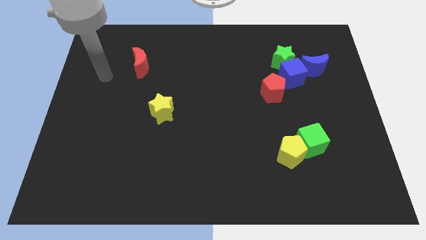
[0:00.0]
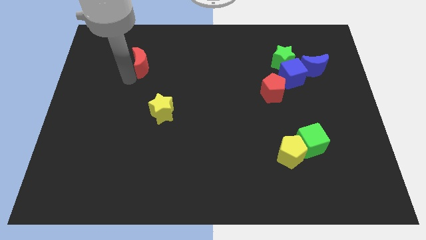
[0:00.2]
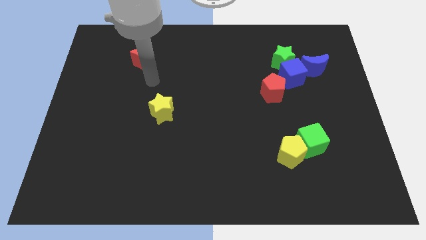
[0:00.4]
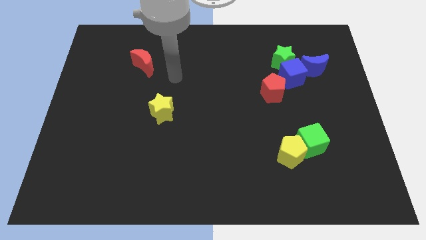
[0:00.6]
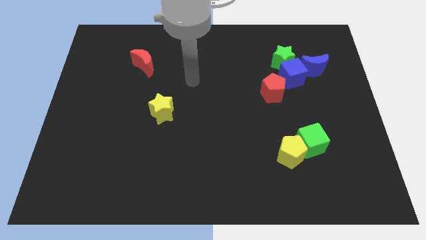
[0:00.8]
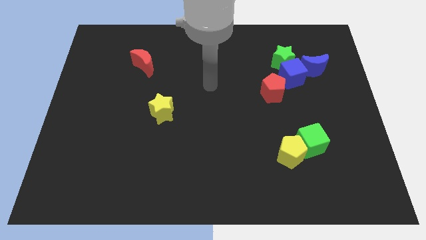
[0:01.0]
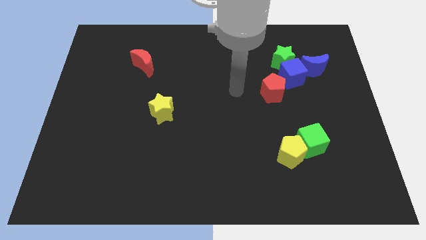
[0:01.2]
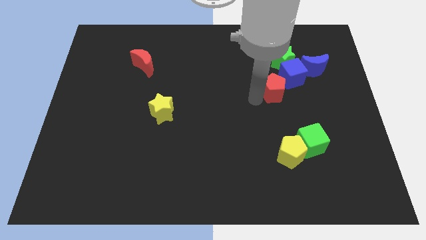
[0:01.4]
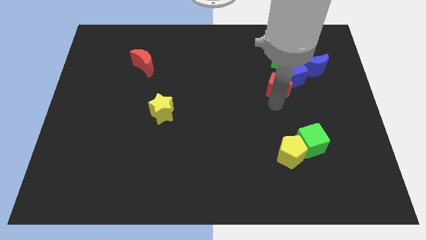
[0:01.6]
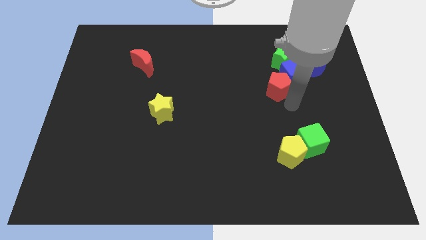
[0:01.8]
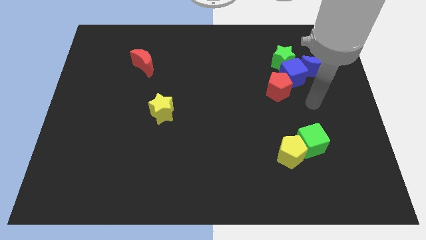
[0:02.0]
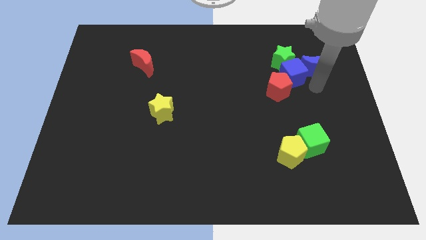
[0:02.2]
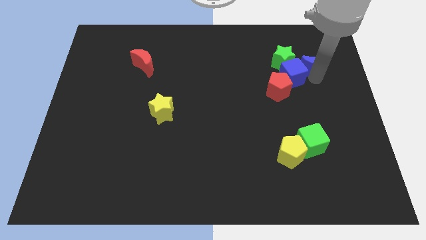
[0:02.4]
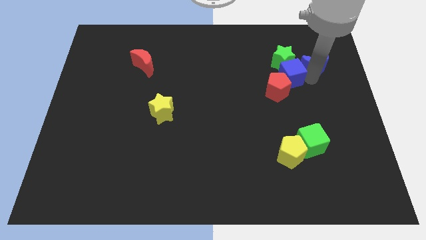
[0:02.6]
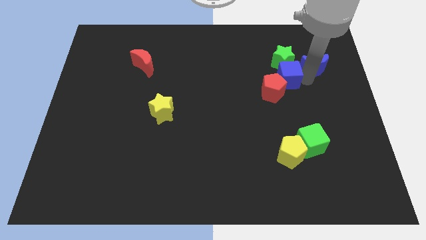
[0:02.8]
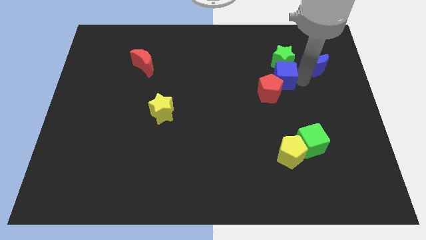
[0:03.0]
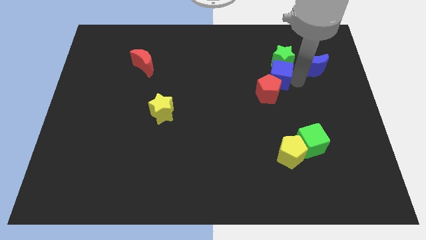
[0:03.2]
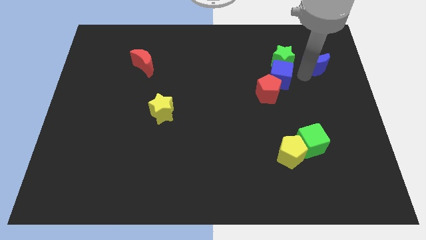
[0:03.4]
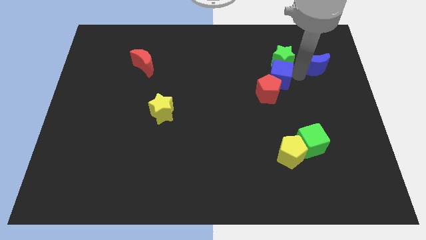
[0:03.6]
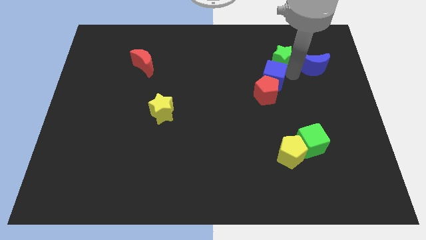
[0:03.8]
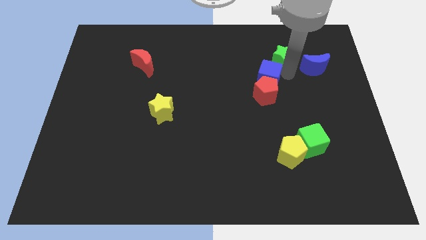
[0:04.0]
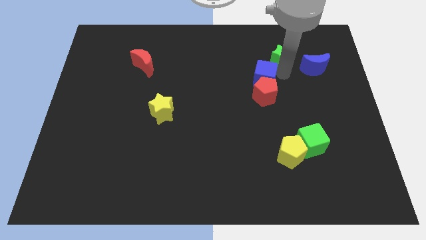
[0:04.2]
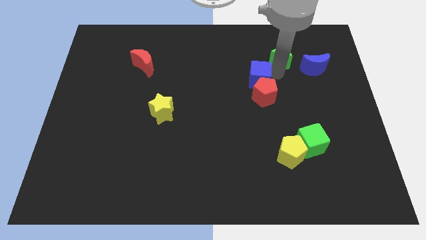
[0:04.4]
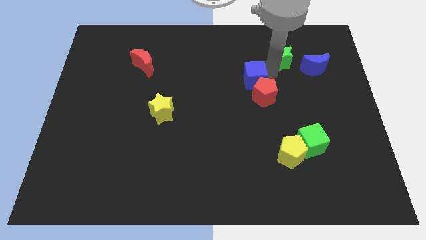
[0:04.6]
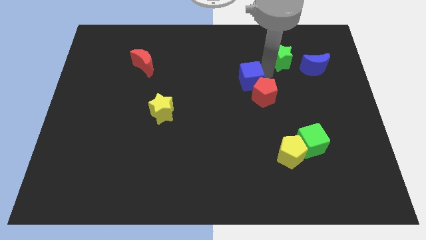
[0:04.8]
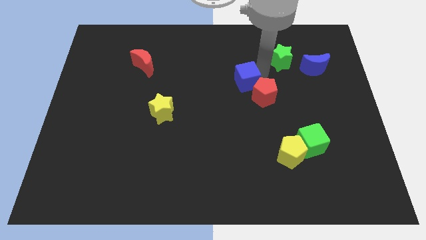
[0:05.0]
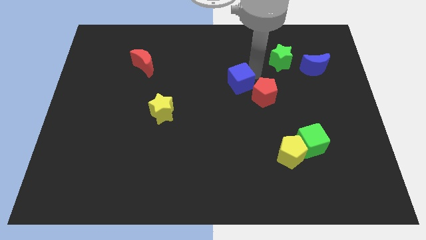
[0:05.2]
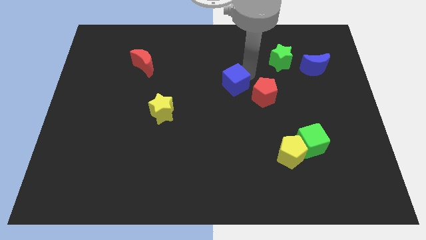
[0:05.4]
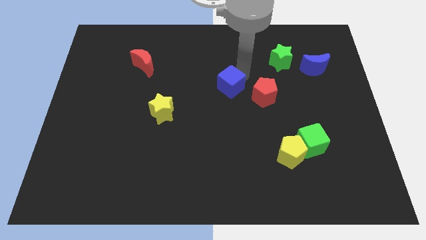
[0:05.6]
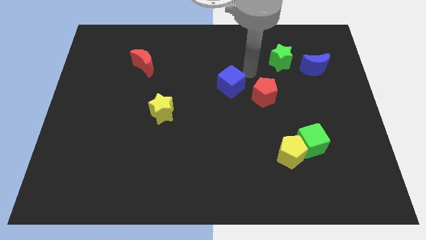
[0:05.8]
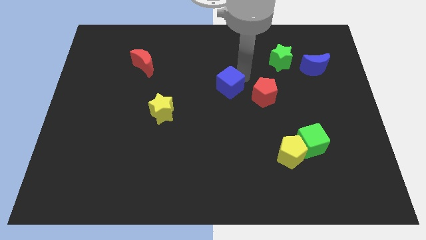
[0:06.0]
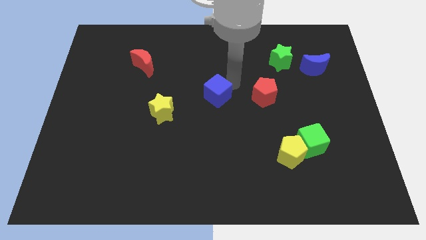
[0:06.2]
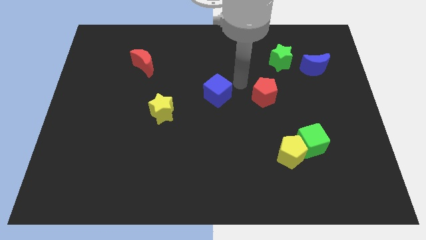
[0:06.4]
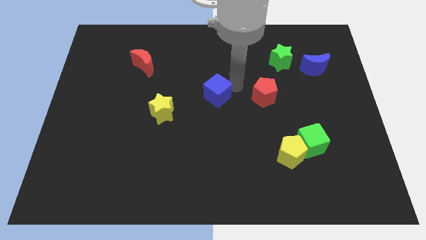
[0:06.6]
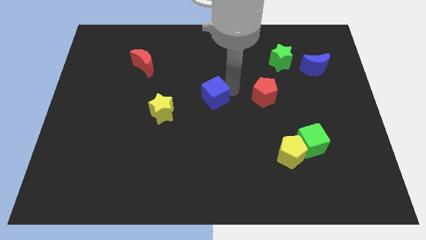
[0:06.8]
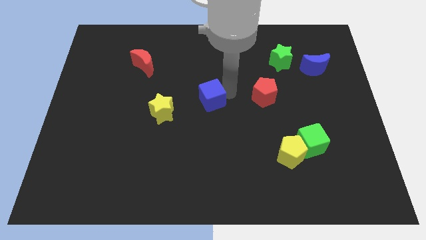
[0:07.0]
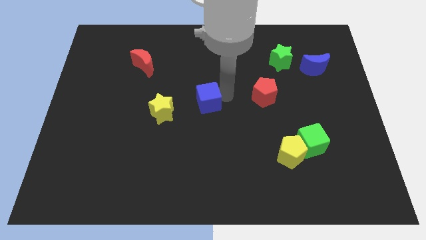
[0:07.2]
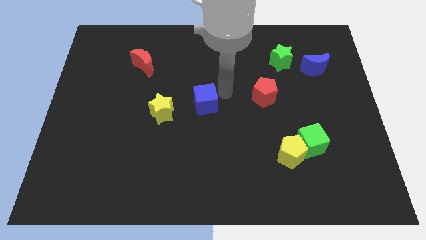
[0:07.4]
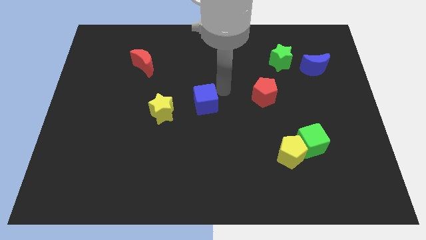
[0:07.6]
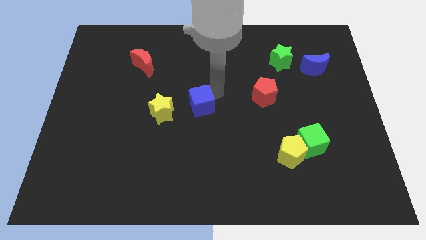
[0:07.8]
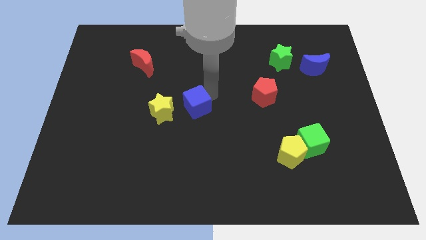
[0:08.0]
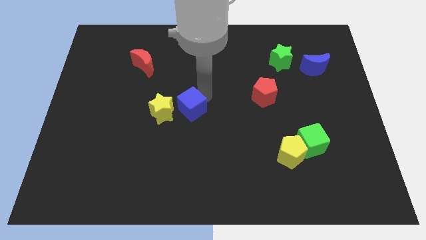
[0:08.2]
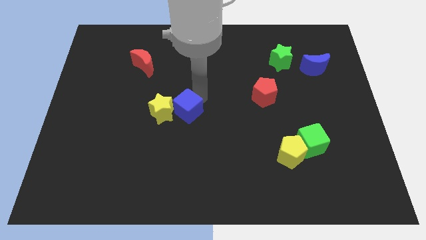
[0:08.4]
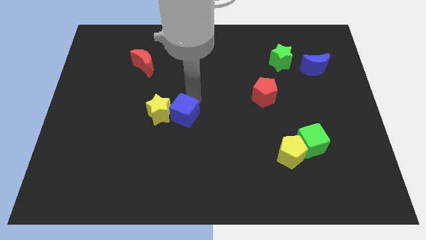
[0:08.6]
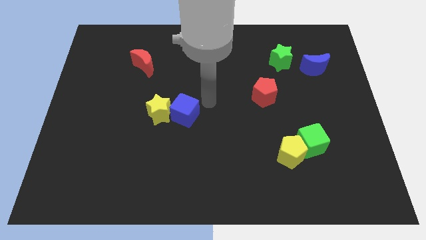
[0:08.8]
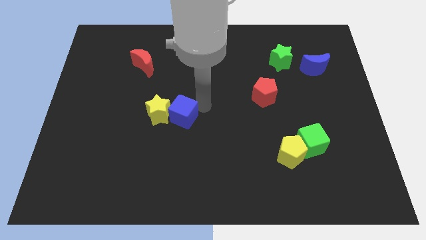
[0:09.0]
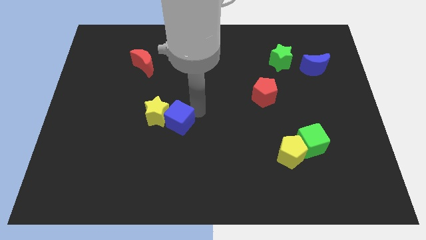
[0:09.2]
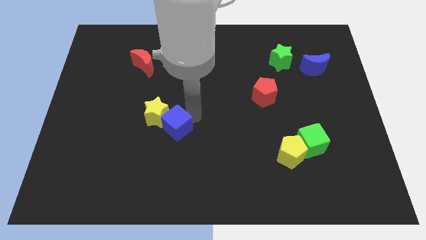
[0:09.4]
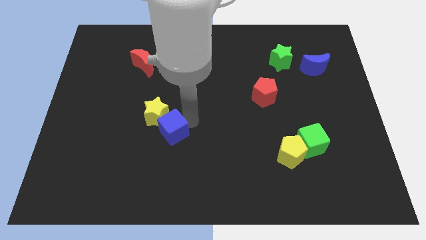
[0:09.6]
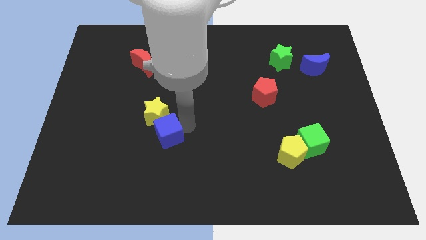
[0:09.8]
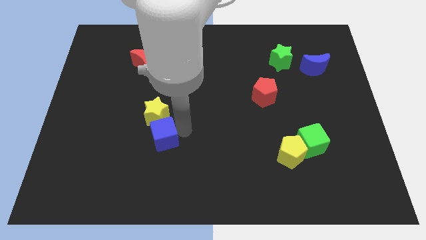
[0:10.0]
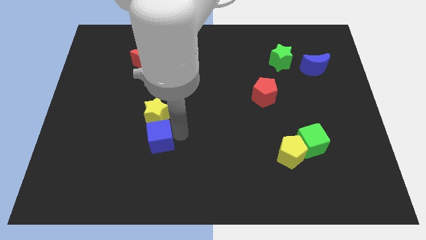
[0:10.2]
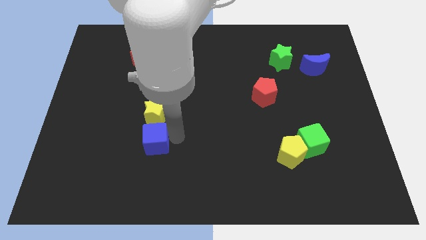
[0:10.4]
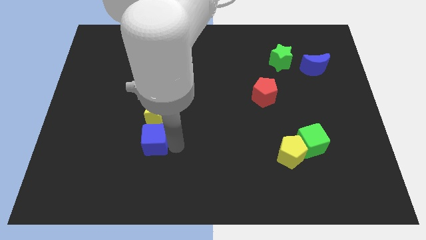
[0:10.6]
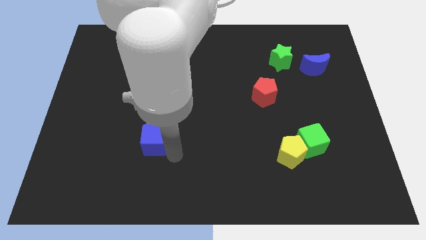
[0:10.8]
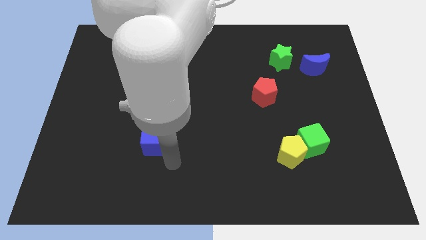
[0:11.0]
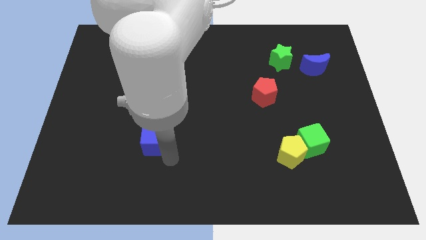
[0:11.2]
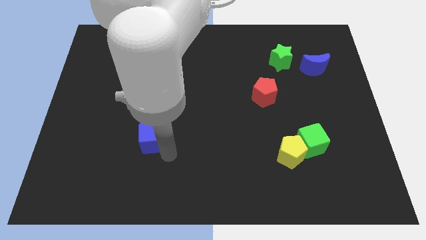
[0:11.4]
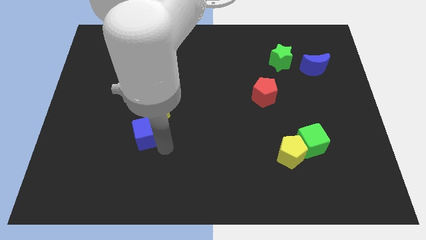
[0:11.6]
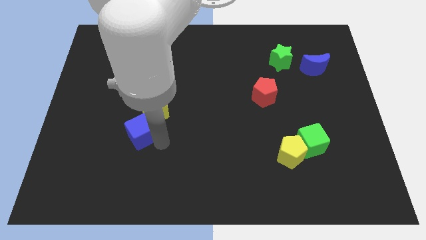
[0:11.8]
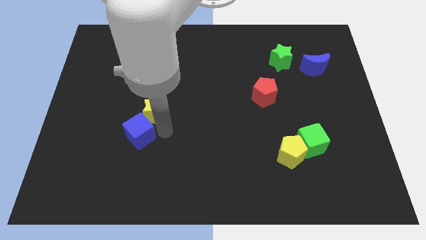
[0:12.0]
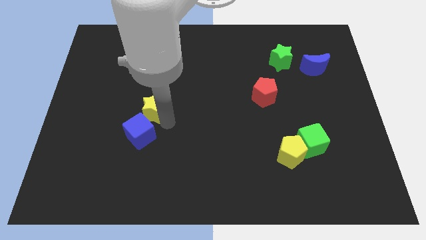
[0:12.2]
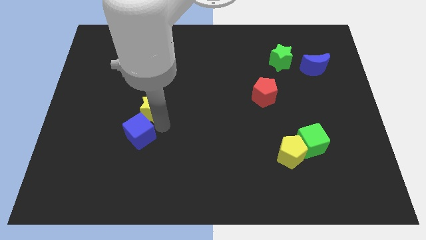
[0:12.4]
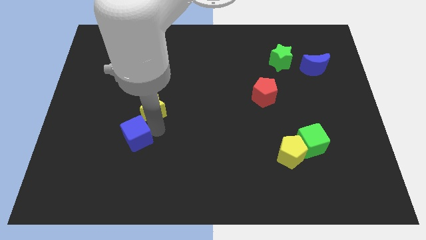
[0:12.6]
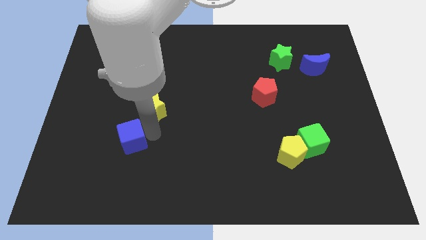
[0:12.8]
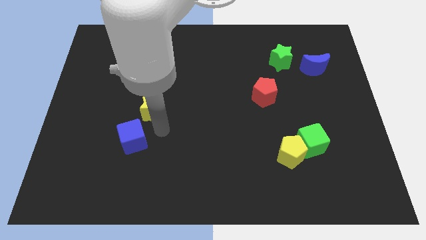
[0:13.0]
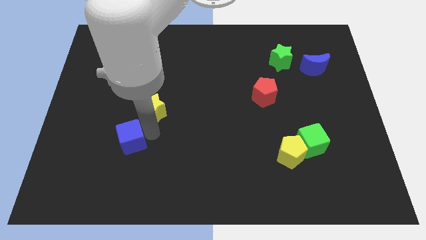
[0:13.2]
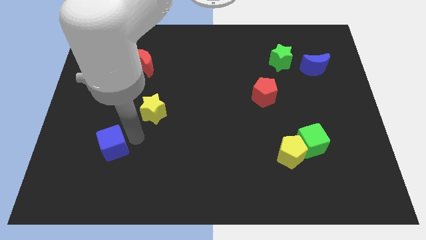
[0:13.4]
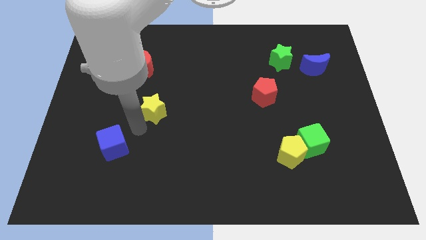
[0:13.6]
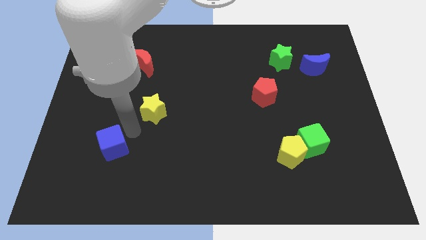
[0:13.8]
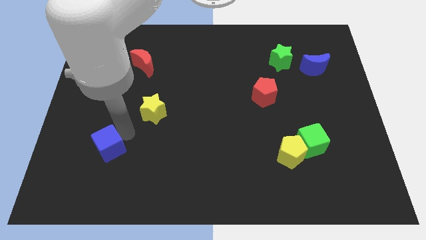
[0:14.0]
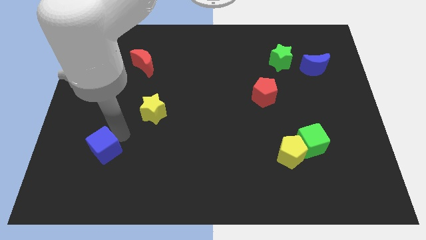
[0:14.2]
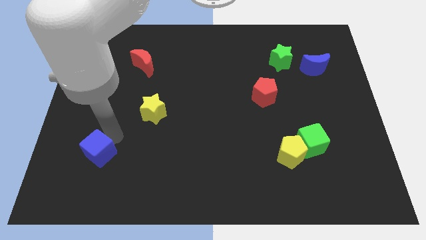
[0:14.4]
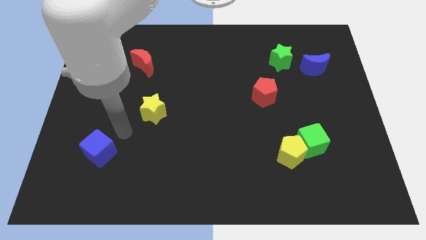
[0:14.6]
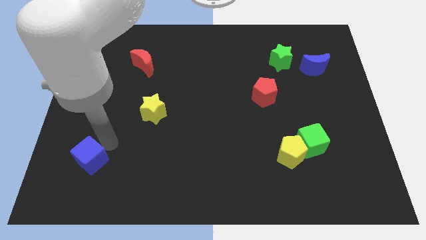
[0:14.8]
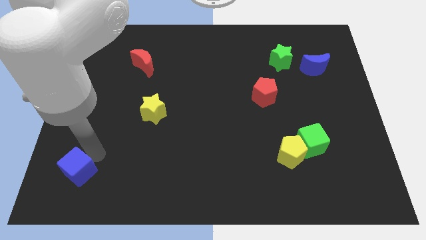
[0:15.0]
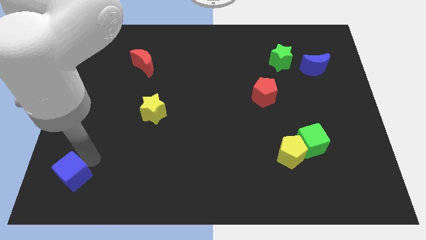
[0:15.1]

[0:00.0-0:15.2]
move the blue cube to the bottom left
